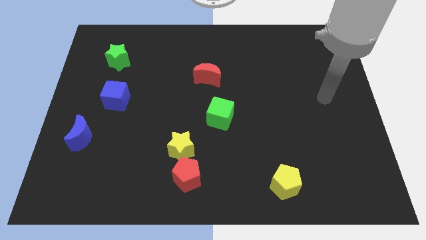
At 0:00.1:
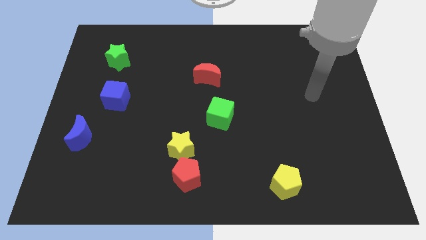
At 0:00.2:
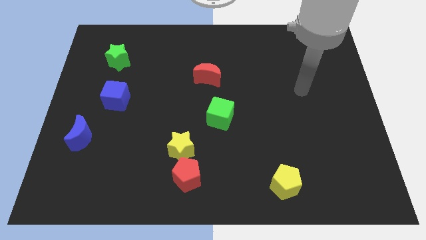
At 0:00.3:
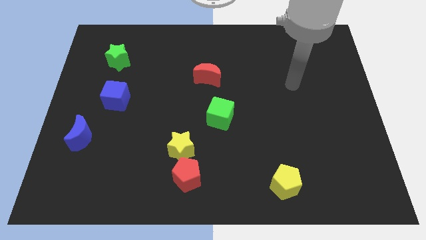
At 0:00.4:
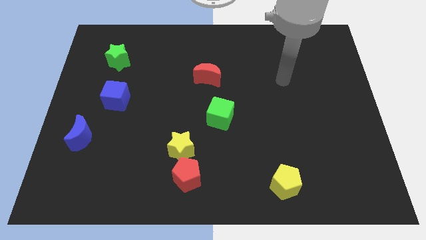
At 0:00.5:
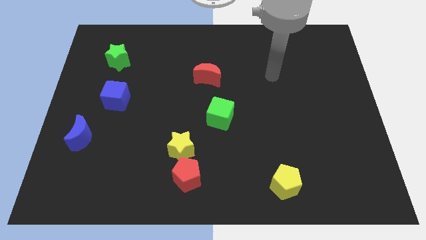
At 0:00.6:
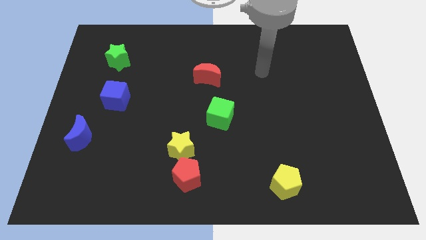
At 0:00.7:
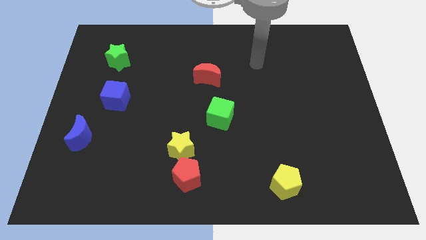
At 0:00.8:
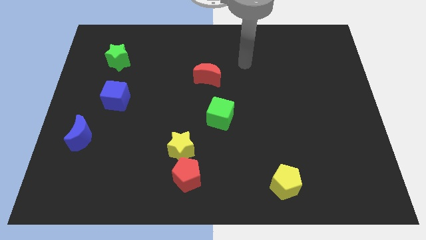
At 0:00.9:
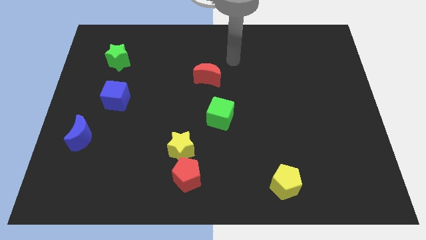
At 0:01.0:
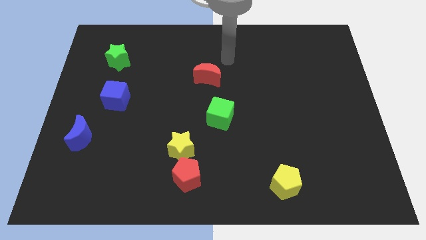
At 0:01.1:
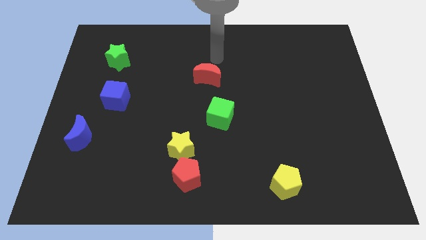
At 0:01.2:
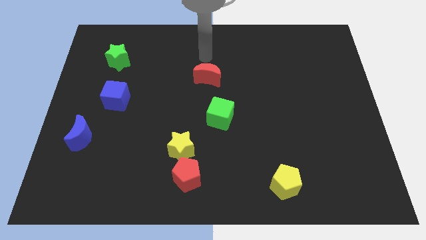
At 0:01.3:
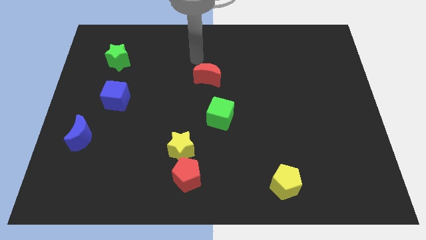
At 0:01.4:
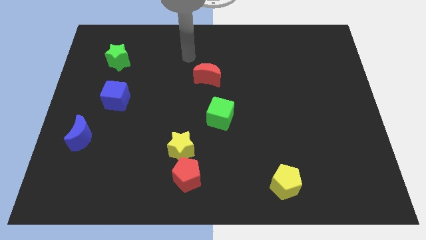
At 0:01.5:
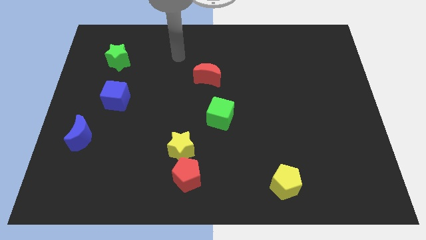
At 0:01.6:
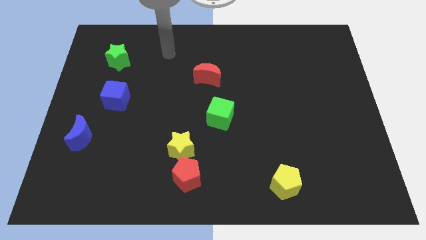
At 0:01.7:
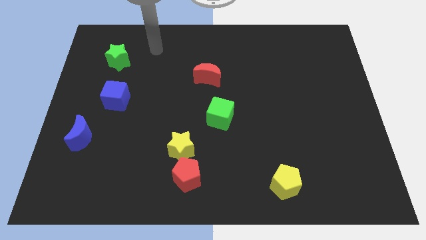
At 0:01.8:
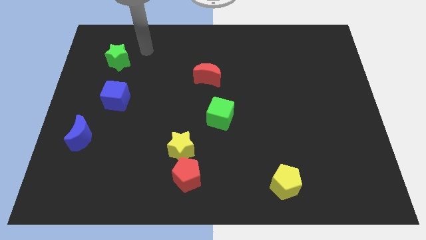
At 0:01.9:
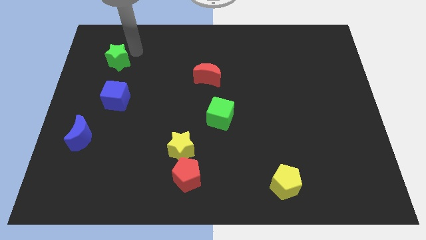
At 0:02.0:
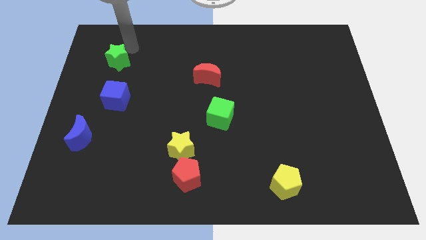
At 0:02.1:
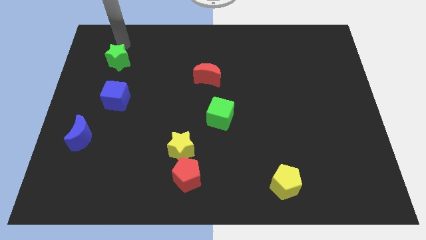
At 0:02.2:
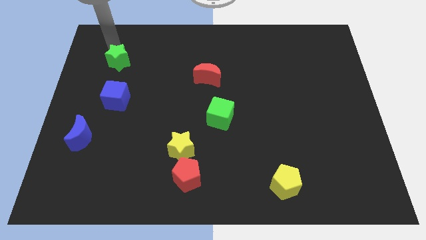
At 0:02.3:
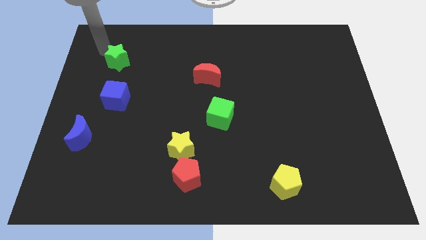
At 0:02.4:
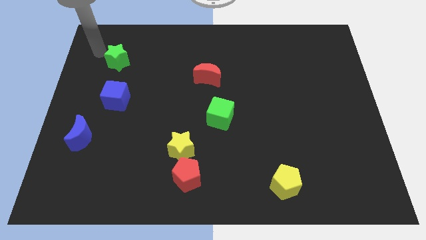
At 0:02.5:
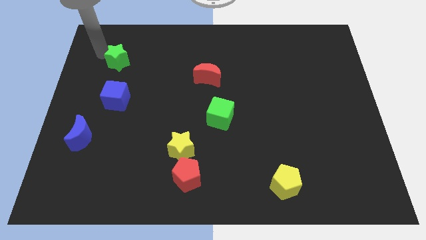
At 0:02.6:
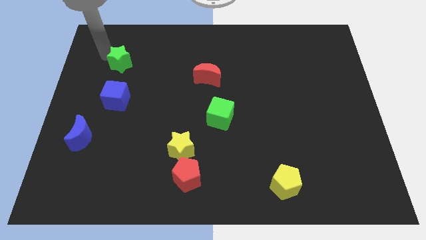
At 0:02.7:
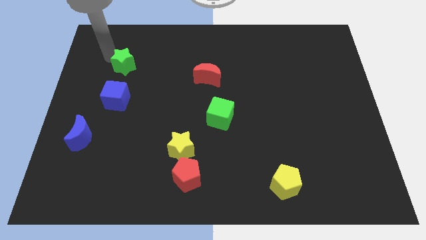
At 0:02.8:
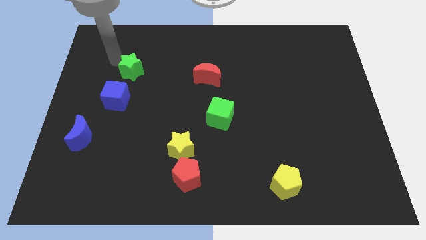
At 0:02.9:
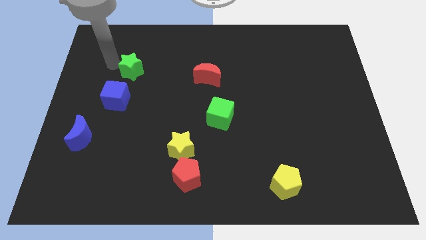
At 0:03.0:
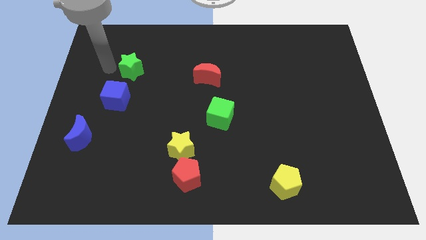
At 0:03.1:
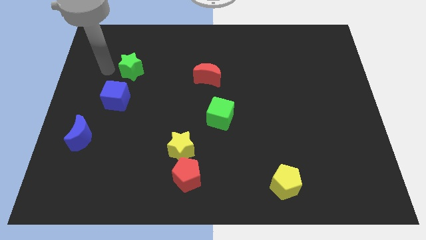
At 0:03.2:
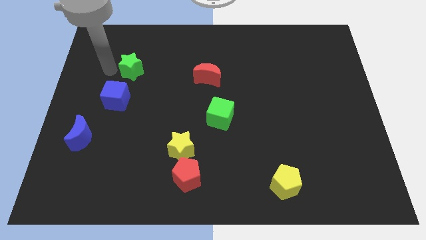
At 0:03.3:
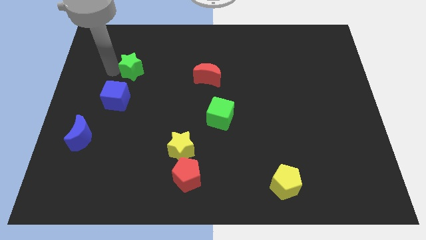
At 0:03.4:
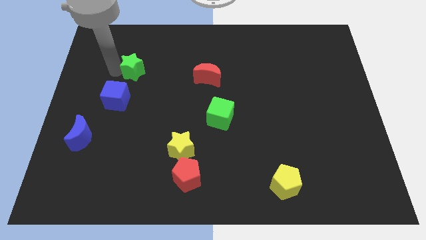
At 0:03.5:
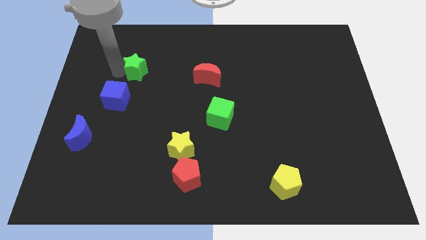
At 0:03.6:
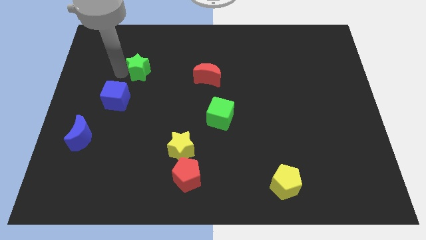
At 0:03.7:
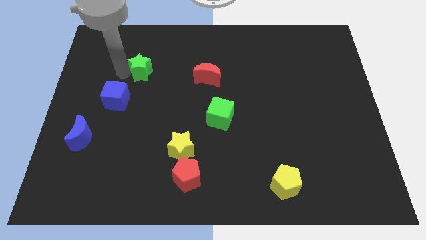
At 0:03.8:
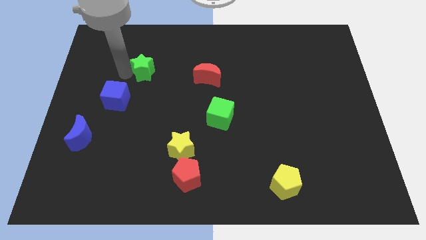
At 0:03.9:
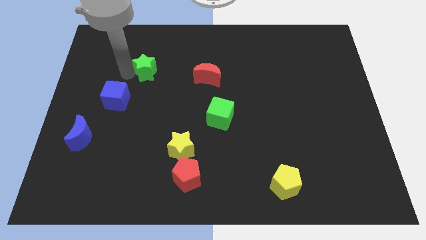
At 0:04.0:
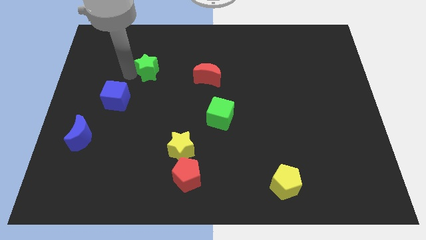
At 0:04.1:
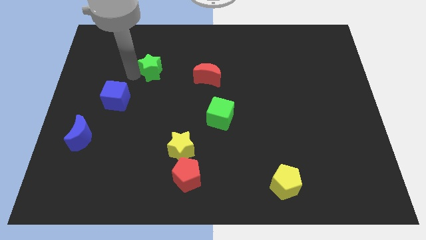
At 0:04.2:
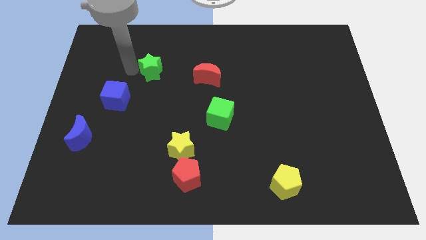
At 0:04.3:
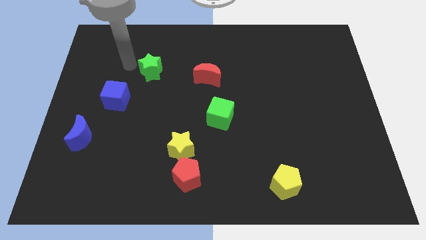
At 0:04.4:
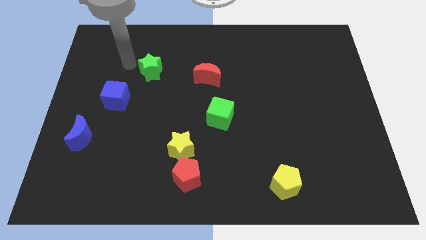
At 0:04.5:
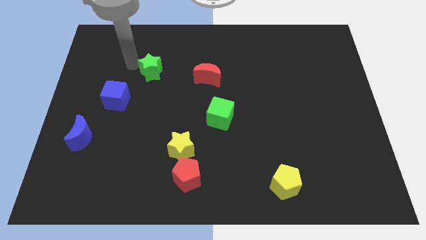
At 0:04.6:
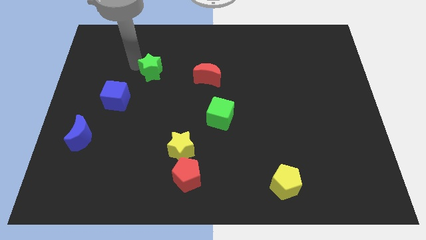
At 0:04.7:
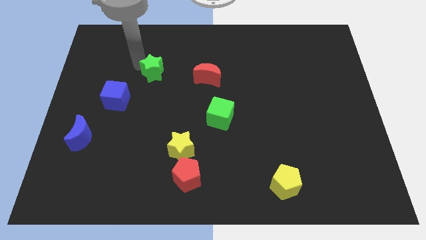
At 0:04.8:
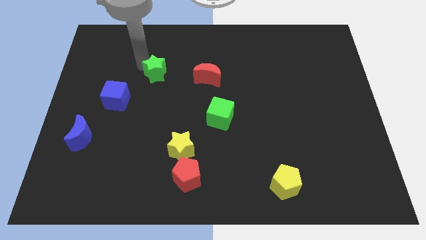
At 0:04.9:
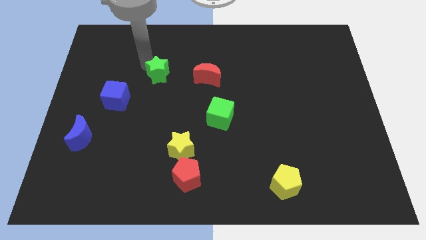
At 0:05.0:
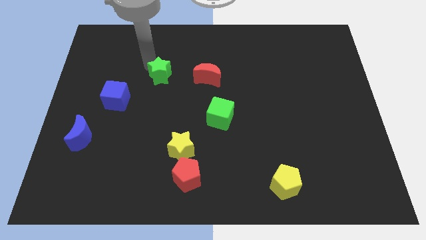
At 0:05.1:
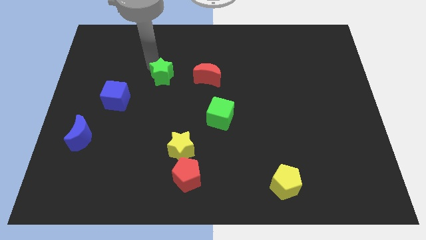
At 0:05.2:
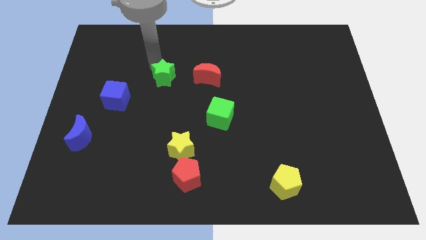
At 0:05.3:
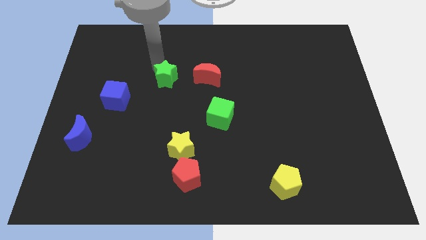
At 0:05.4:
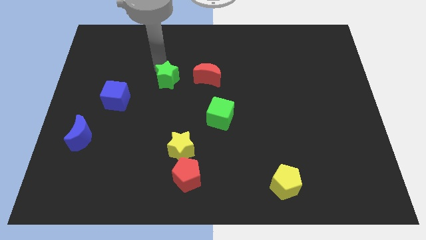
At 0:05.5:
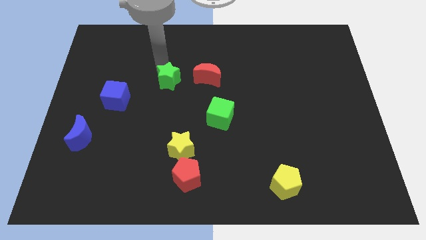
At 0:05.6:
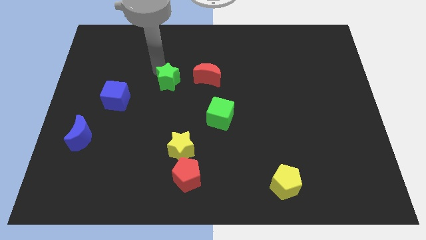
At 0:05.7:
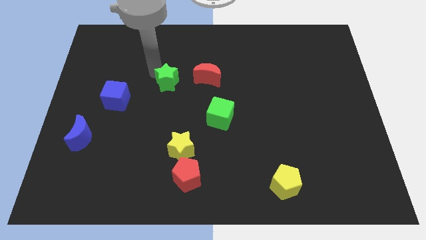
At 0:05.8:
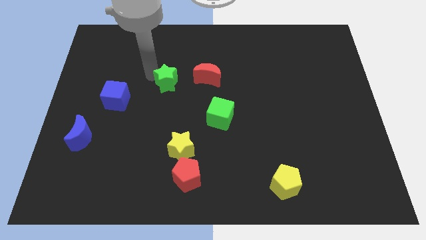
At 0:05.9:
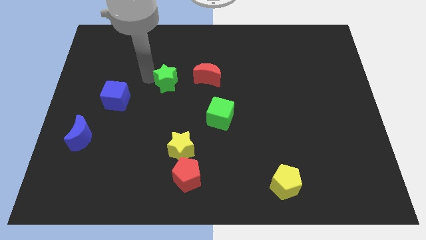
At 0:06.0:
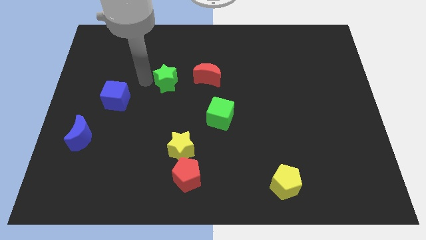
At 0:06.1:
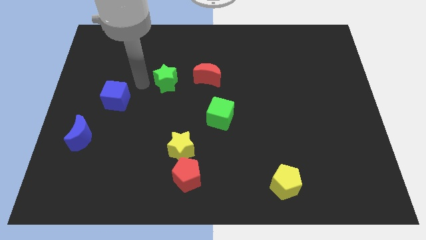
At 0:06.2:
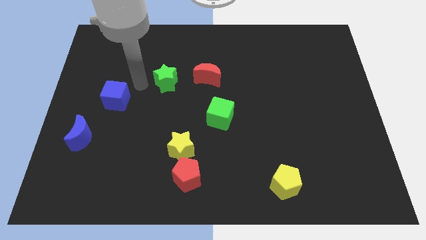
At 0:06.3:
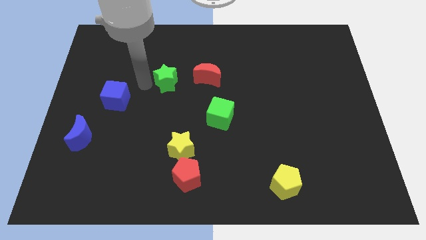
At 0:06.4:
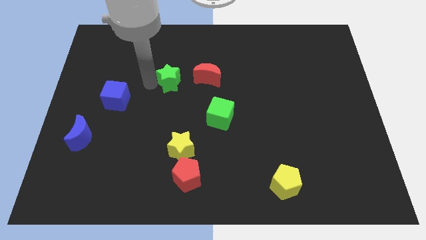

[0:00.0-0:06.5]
put the green star to the center of the board

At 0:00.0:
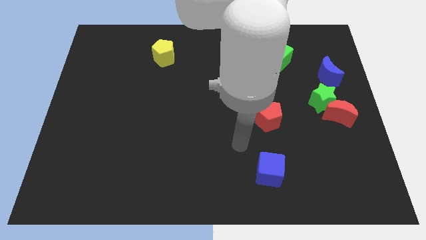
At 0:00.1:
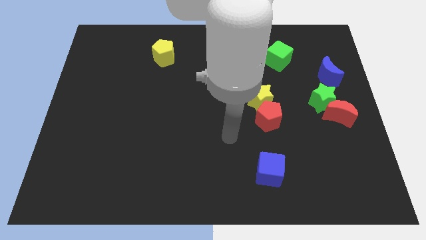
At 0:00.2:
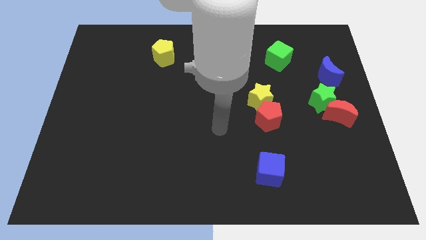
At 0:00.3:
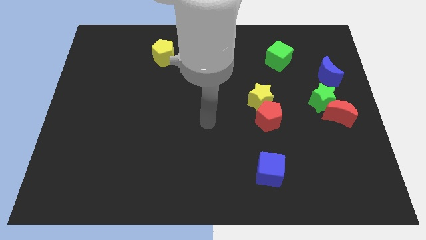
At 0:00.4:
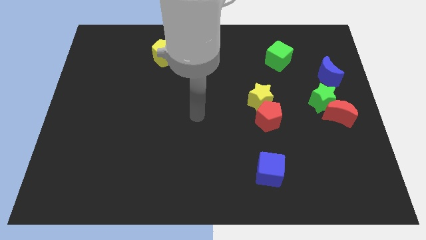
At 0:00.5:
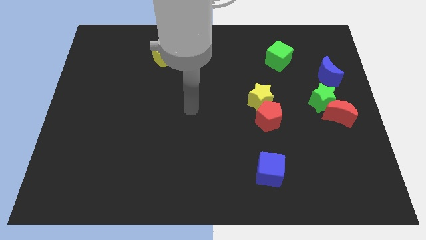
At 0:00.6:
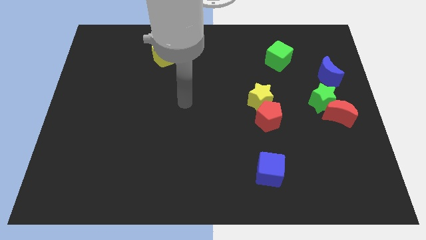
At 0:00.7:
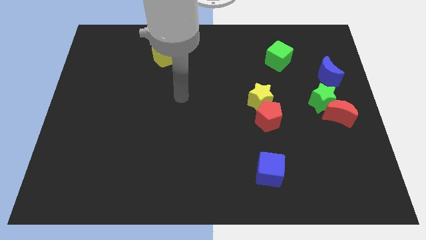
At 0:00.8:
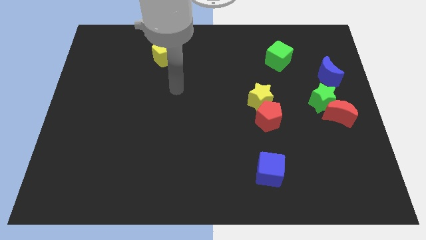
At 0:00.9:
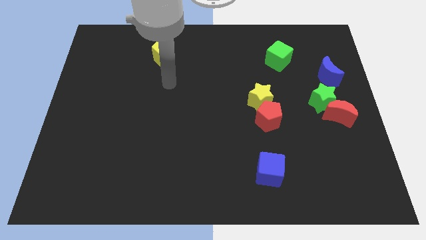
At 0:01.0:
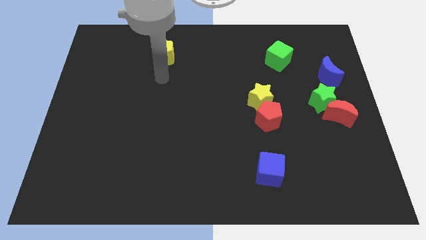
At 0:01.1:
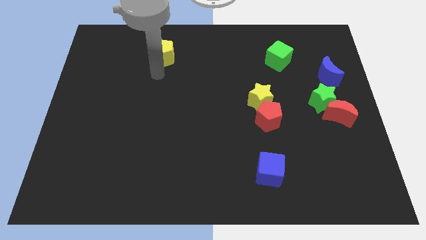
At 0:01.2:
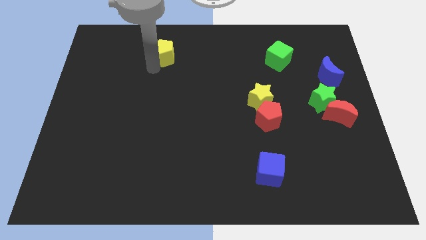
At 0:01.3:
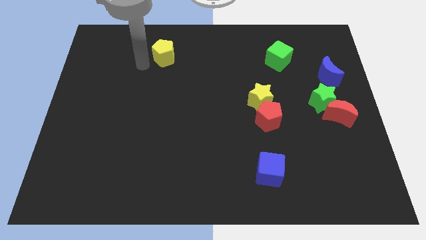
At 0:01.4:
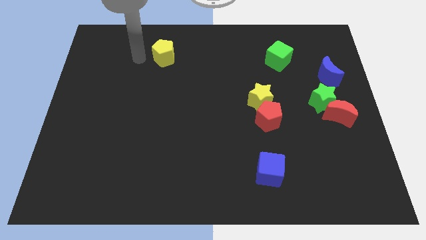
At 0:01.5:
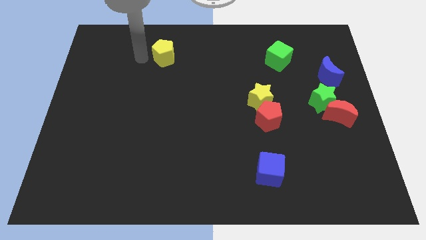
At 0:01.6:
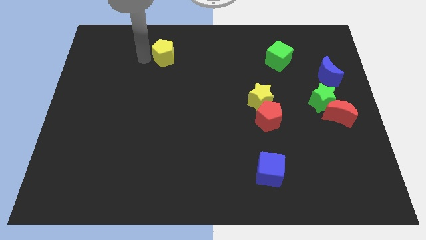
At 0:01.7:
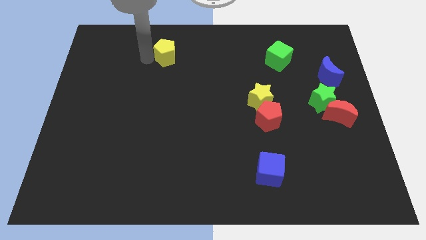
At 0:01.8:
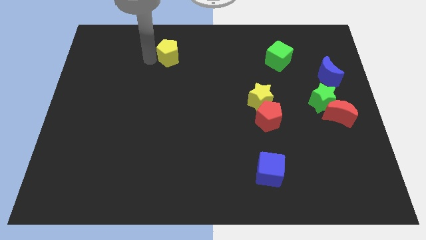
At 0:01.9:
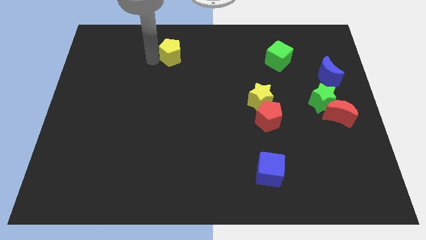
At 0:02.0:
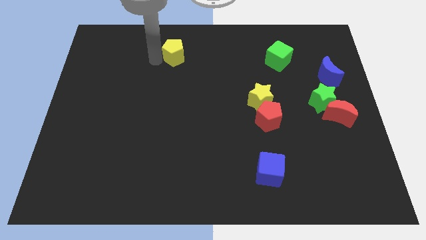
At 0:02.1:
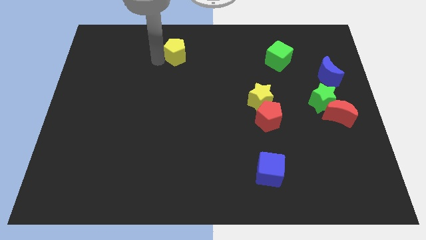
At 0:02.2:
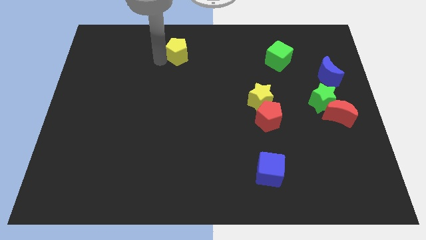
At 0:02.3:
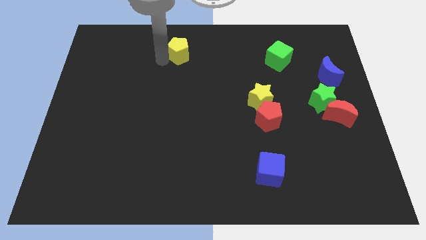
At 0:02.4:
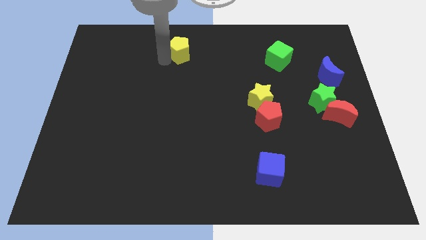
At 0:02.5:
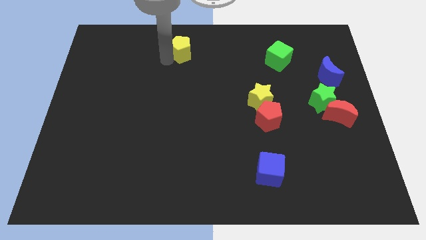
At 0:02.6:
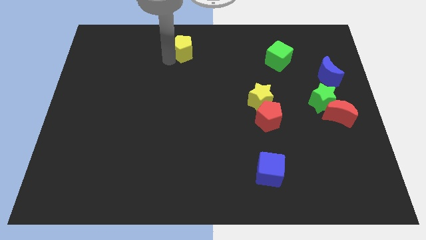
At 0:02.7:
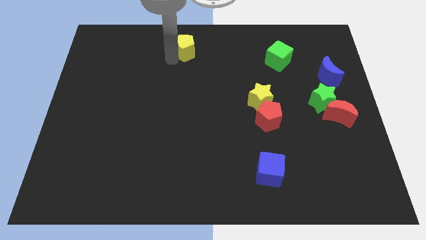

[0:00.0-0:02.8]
move the yellow pentagon to the towards your base
